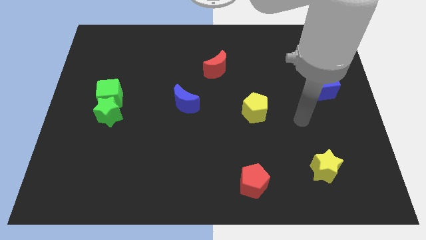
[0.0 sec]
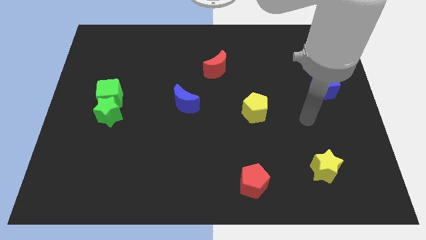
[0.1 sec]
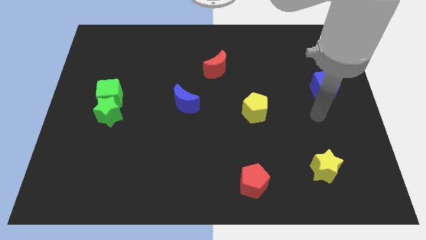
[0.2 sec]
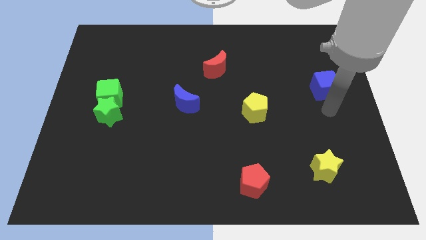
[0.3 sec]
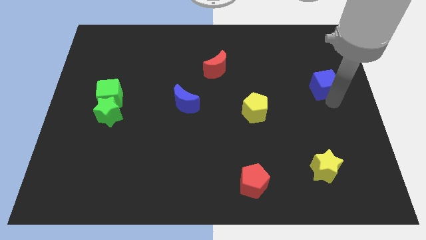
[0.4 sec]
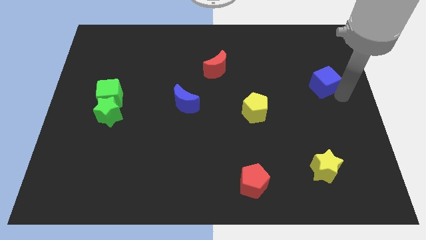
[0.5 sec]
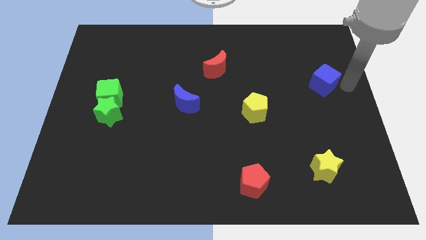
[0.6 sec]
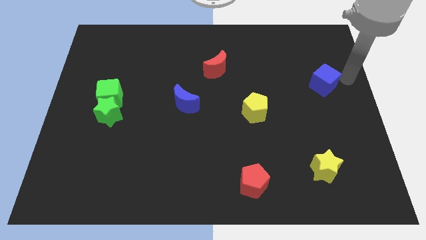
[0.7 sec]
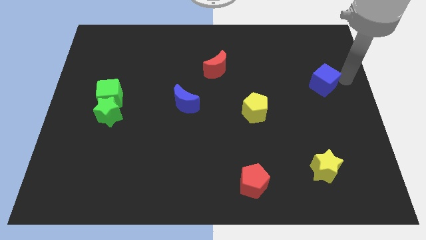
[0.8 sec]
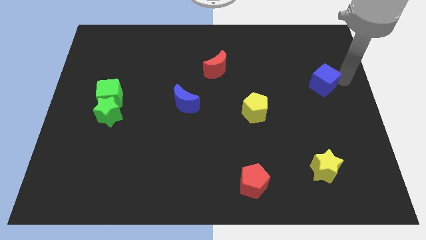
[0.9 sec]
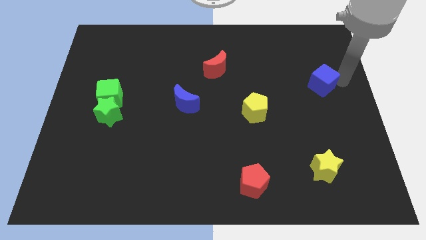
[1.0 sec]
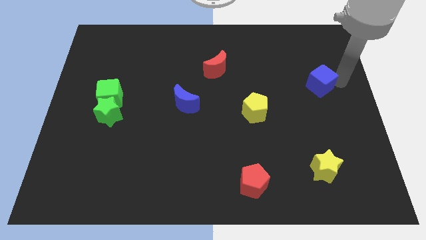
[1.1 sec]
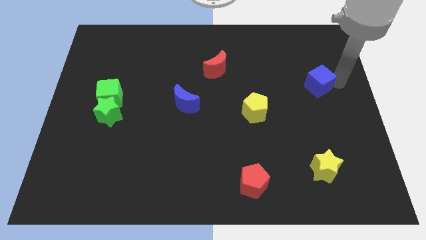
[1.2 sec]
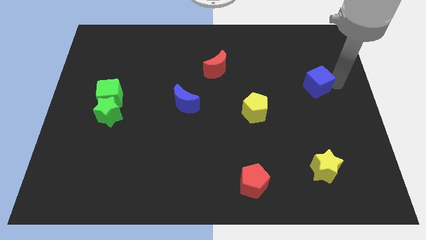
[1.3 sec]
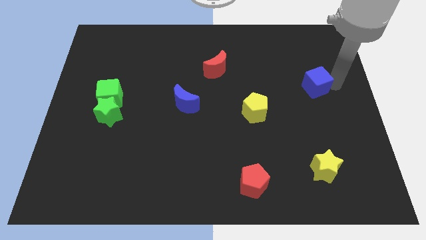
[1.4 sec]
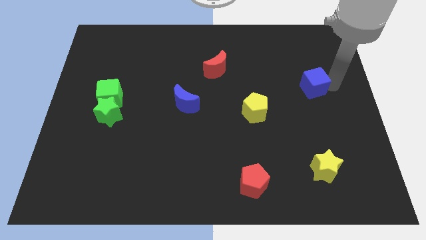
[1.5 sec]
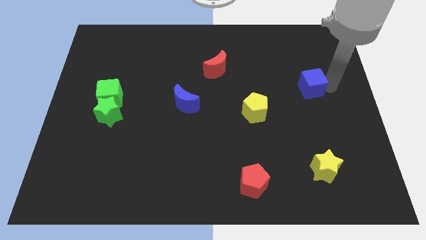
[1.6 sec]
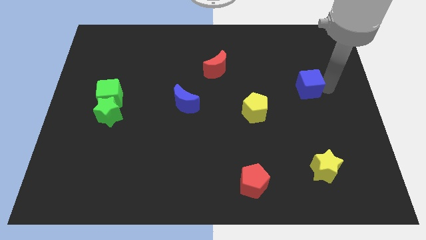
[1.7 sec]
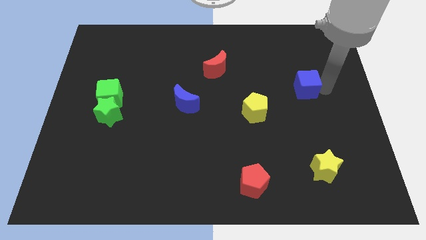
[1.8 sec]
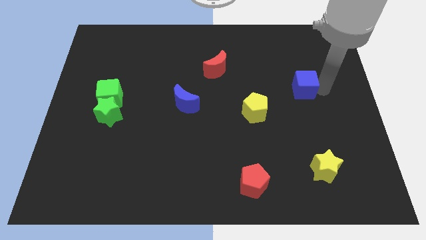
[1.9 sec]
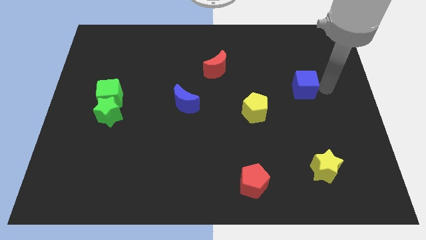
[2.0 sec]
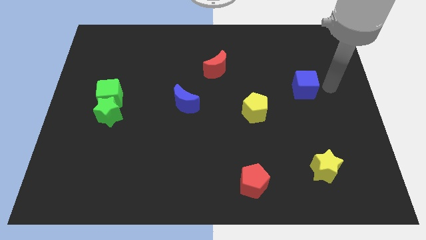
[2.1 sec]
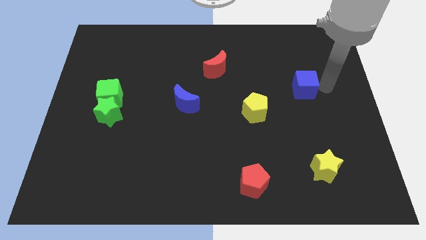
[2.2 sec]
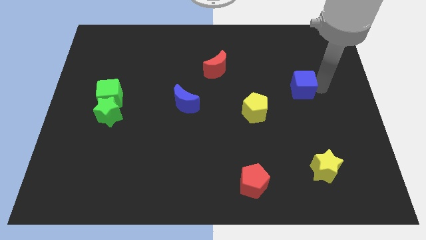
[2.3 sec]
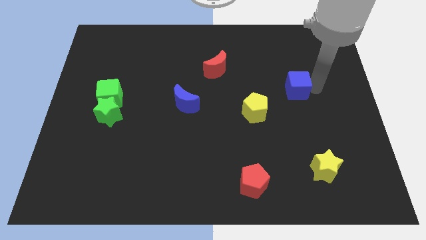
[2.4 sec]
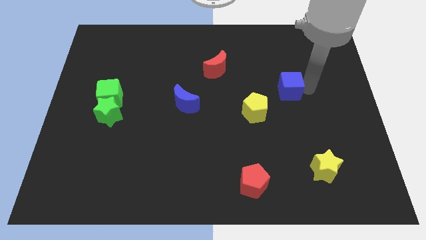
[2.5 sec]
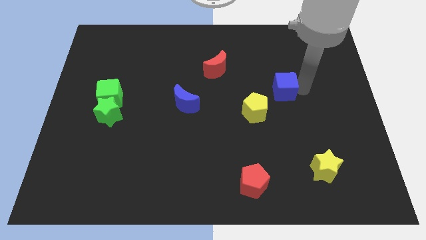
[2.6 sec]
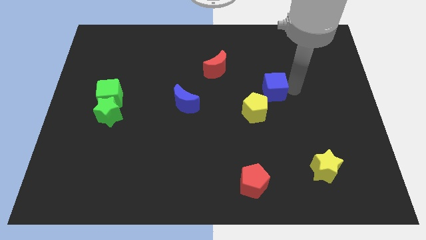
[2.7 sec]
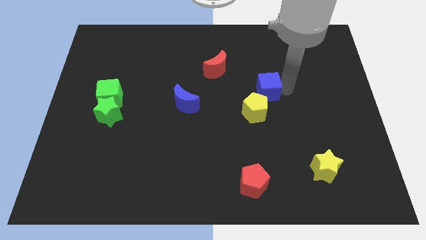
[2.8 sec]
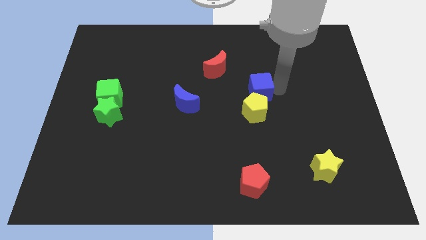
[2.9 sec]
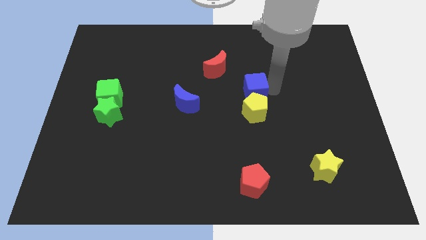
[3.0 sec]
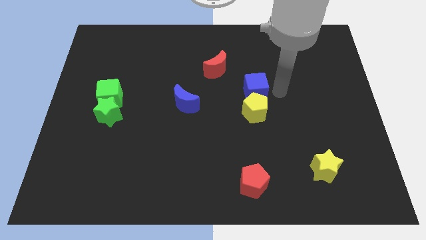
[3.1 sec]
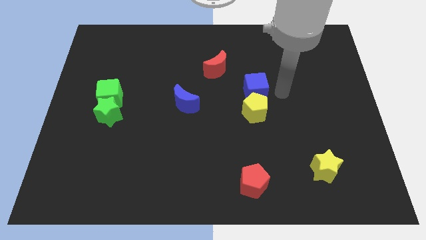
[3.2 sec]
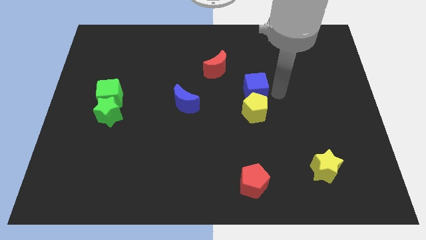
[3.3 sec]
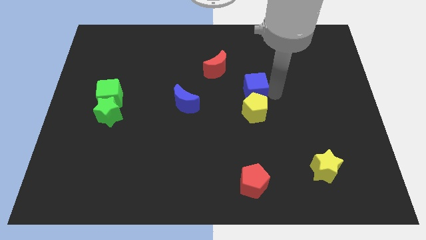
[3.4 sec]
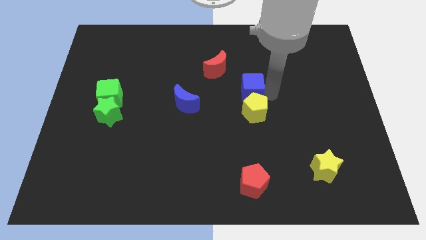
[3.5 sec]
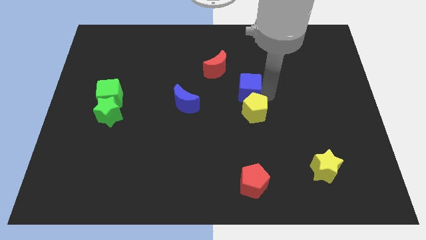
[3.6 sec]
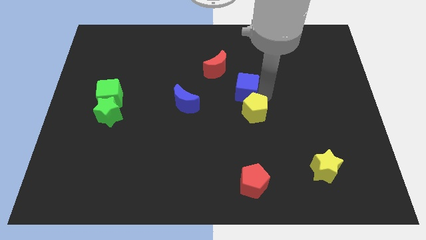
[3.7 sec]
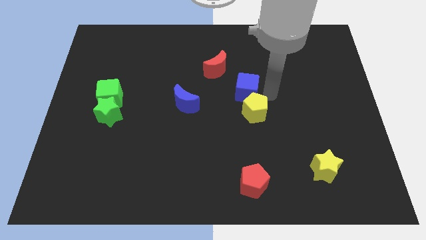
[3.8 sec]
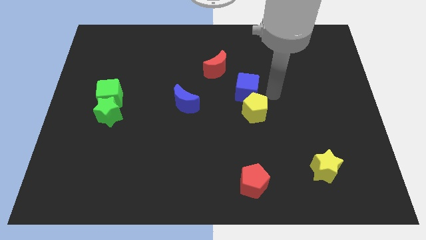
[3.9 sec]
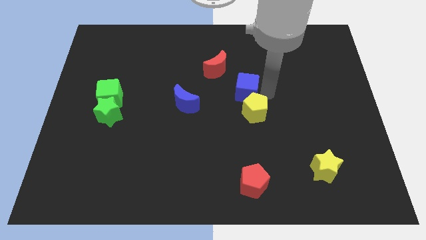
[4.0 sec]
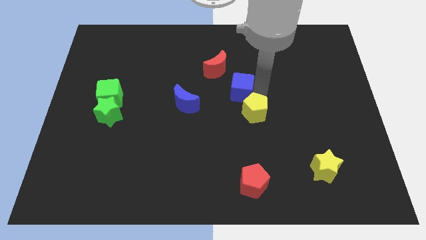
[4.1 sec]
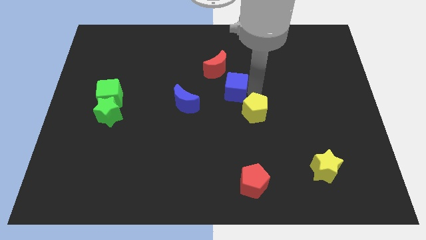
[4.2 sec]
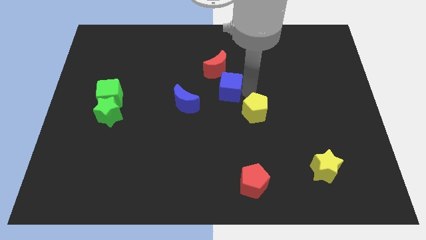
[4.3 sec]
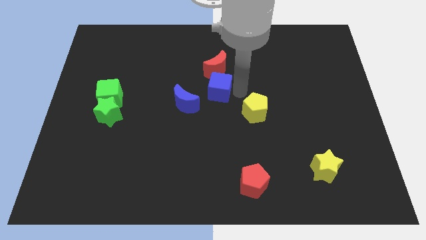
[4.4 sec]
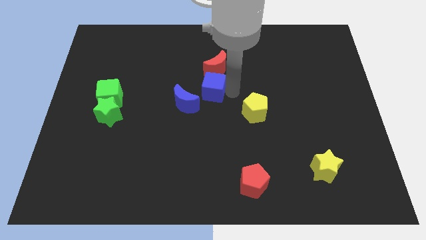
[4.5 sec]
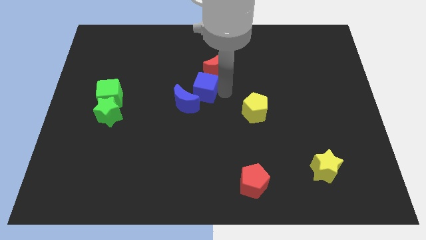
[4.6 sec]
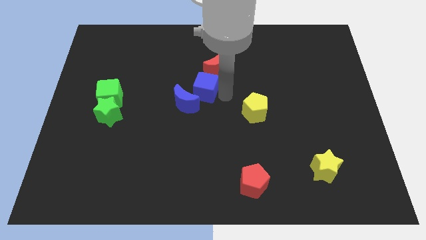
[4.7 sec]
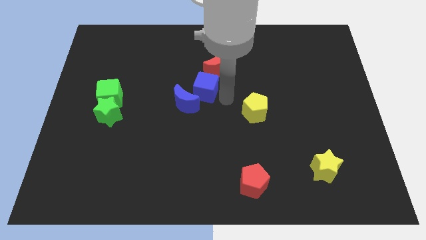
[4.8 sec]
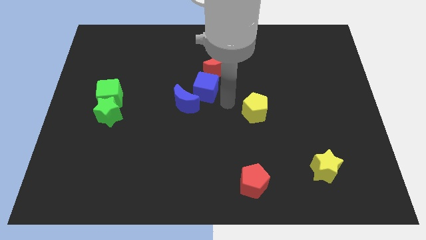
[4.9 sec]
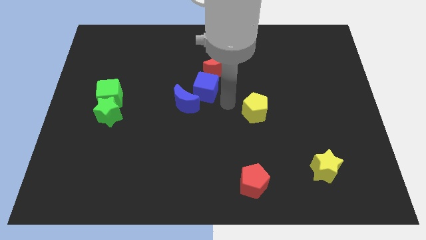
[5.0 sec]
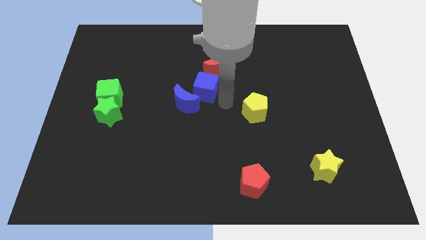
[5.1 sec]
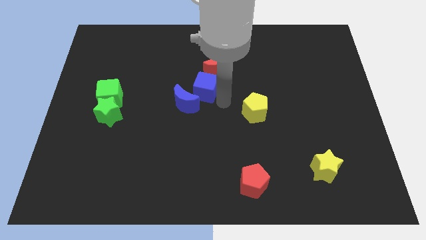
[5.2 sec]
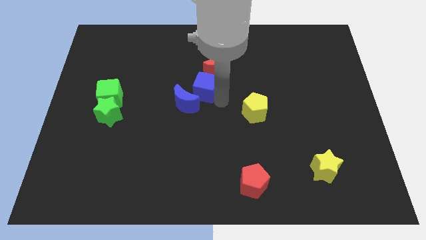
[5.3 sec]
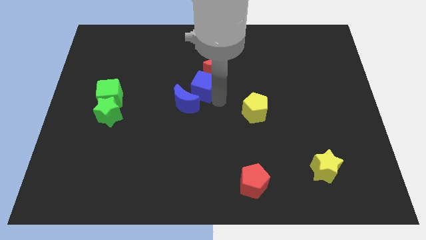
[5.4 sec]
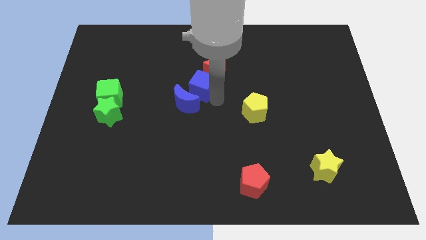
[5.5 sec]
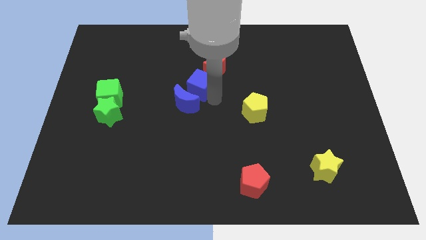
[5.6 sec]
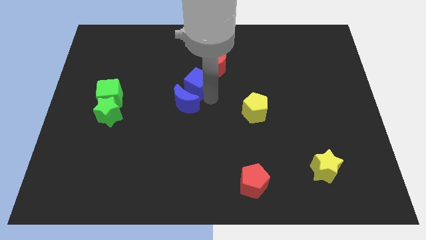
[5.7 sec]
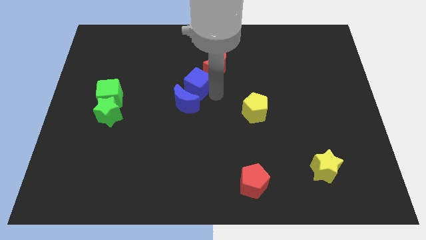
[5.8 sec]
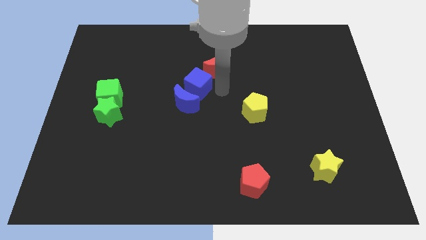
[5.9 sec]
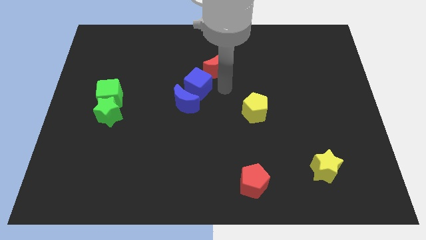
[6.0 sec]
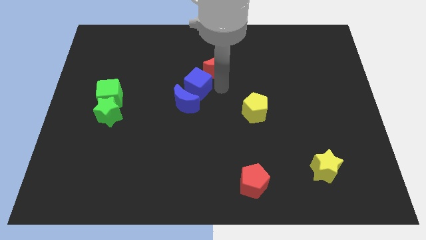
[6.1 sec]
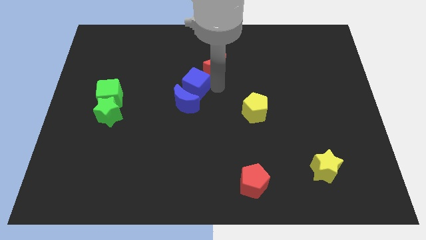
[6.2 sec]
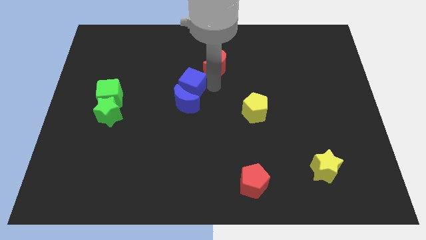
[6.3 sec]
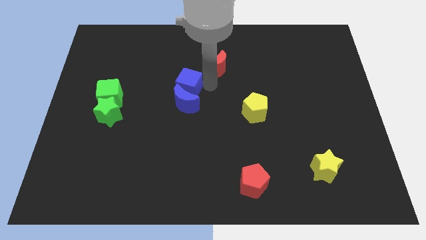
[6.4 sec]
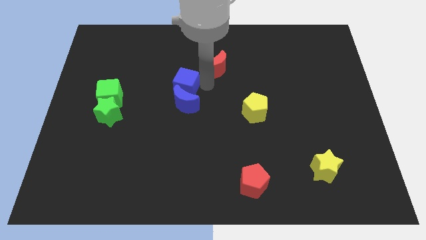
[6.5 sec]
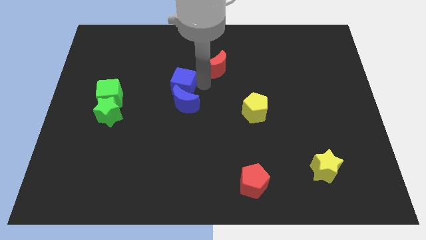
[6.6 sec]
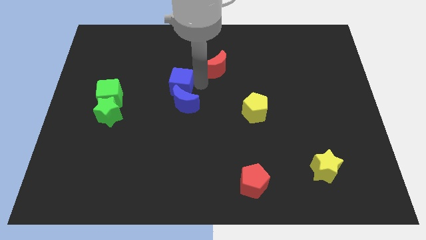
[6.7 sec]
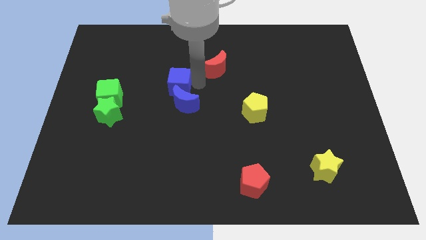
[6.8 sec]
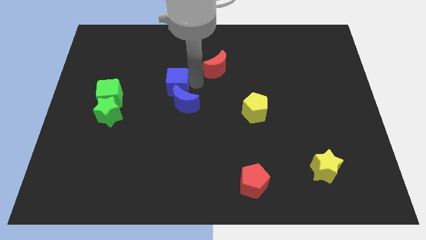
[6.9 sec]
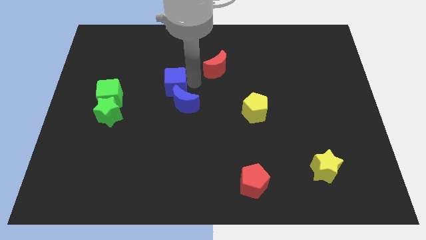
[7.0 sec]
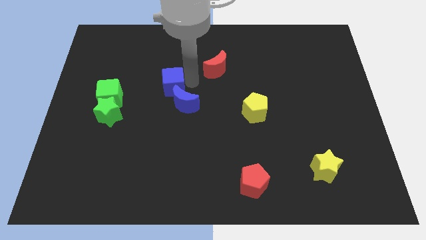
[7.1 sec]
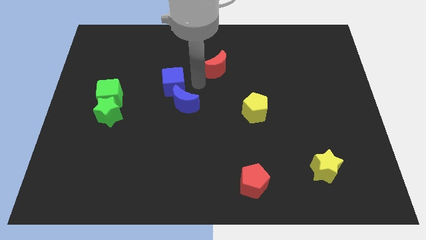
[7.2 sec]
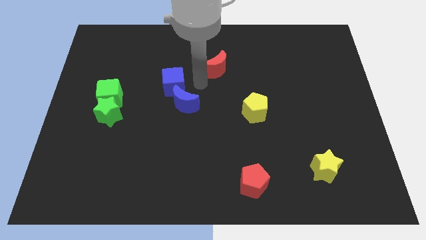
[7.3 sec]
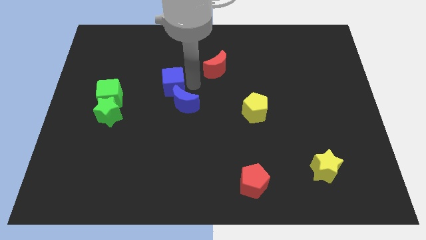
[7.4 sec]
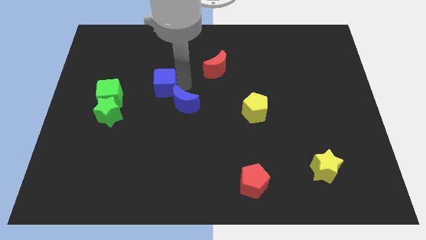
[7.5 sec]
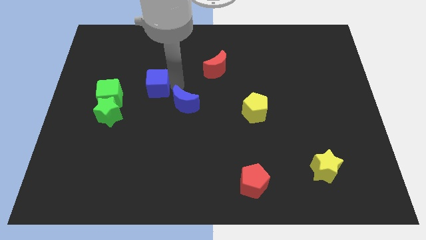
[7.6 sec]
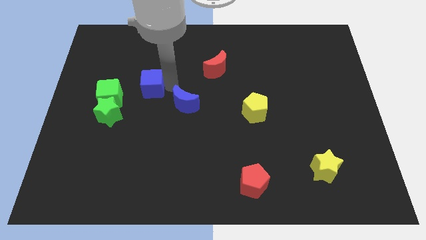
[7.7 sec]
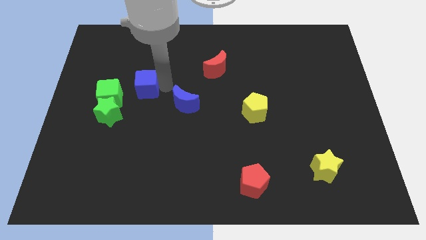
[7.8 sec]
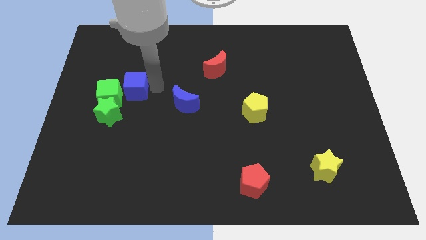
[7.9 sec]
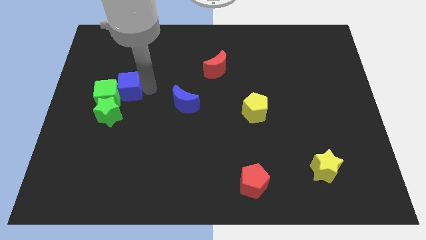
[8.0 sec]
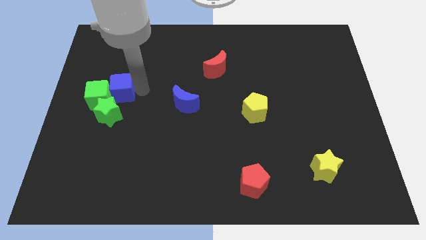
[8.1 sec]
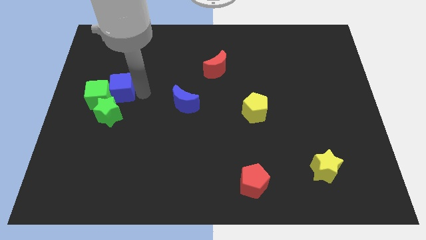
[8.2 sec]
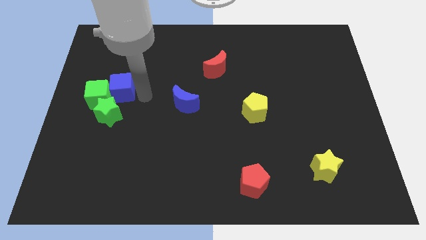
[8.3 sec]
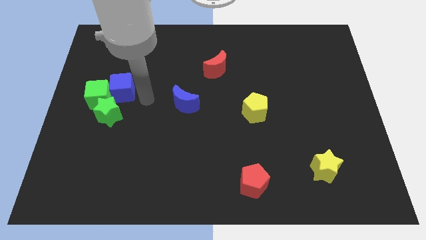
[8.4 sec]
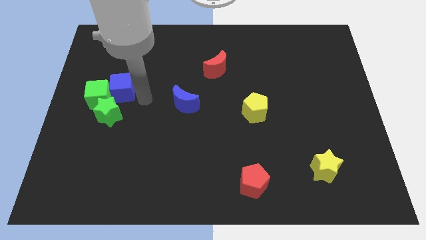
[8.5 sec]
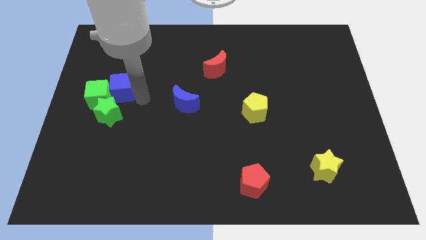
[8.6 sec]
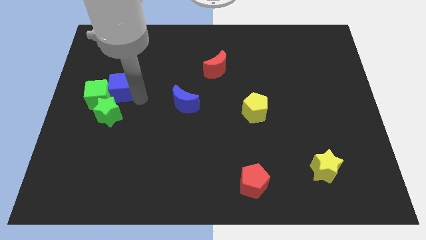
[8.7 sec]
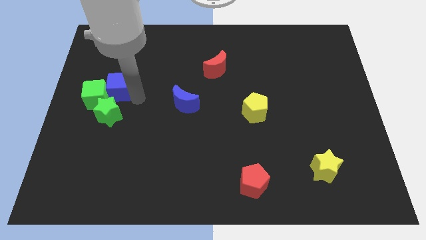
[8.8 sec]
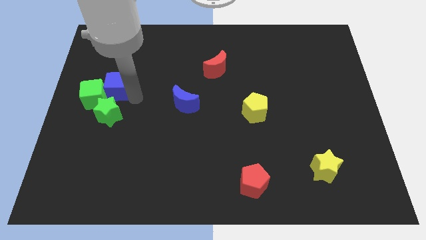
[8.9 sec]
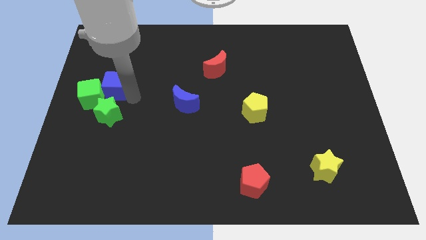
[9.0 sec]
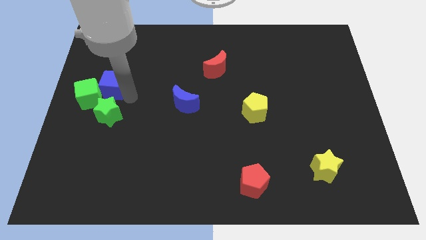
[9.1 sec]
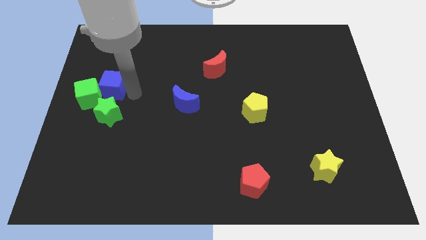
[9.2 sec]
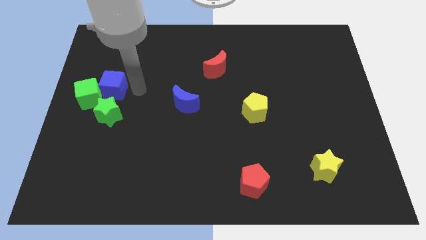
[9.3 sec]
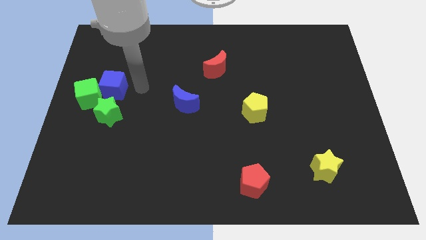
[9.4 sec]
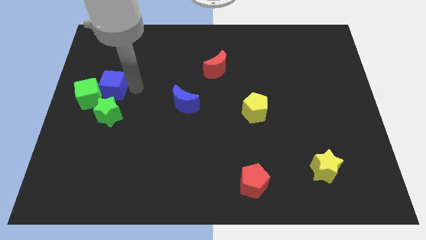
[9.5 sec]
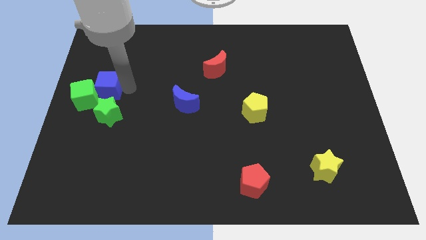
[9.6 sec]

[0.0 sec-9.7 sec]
slide the blue cube to the left side
